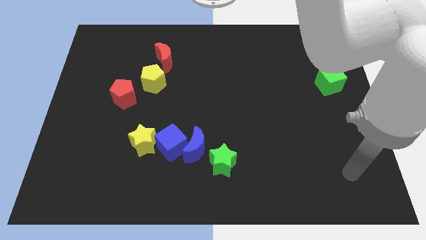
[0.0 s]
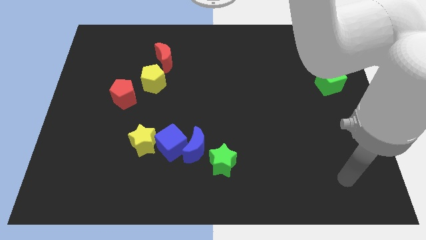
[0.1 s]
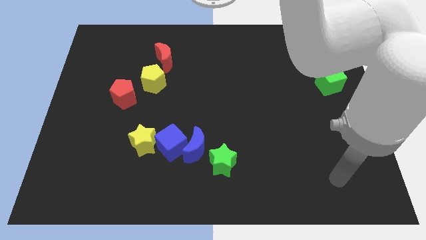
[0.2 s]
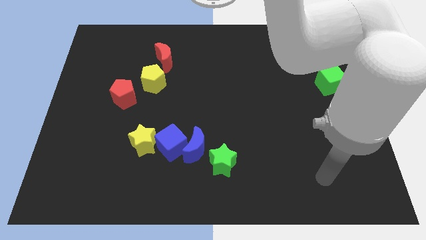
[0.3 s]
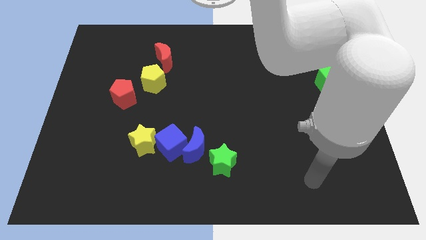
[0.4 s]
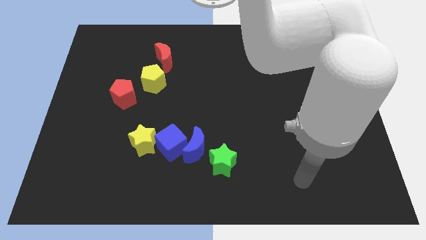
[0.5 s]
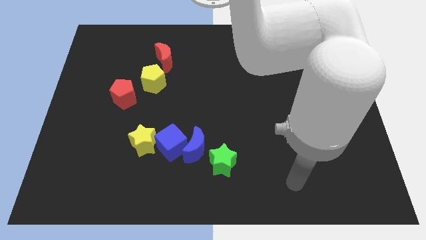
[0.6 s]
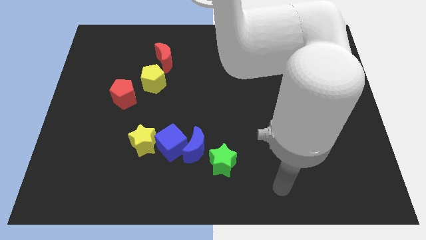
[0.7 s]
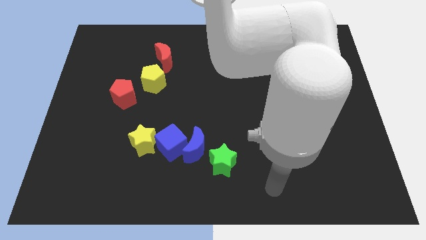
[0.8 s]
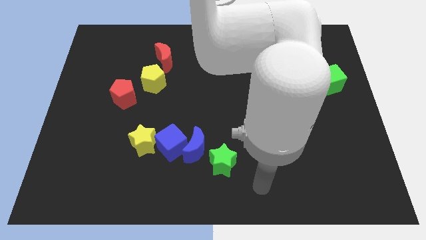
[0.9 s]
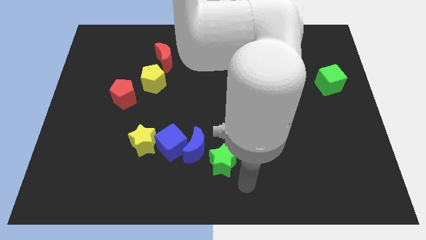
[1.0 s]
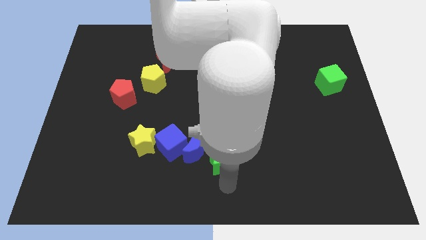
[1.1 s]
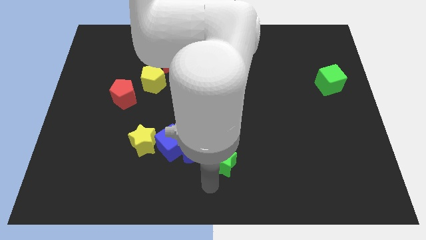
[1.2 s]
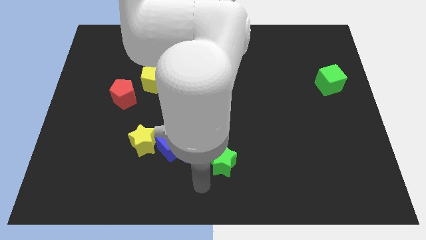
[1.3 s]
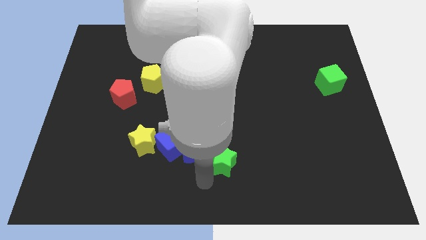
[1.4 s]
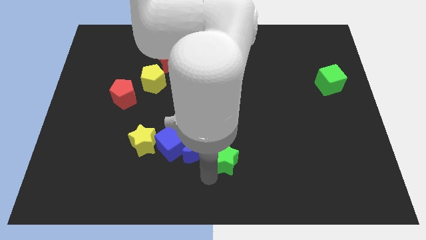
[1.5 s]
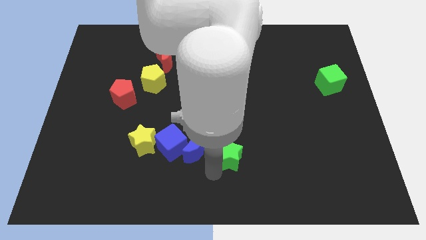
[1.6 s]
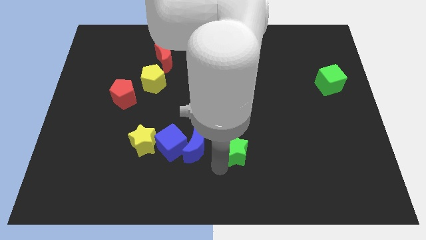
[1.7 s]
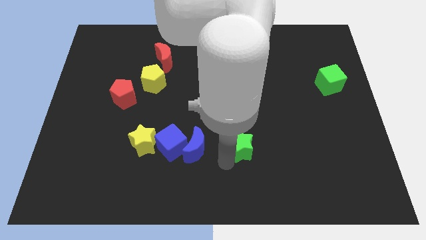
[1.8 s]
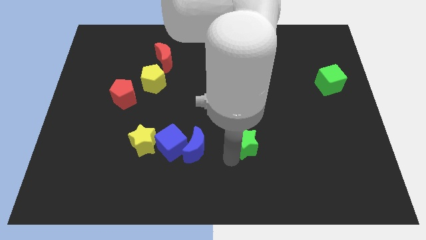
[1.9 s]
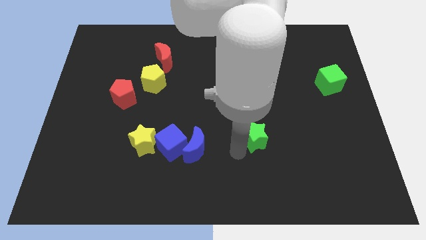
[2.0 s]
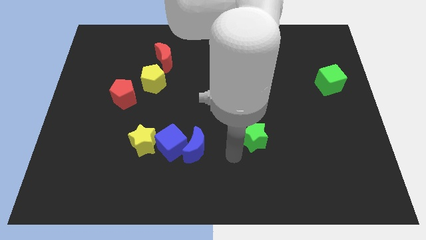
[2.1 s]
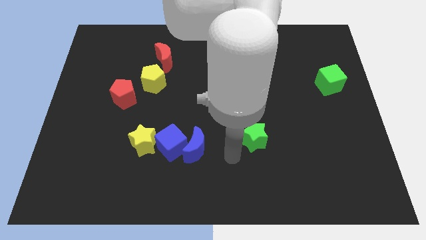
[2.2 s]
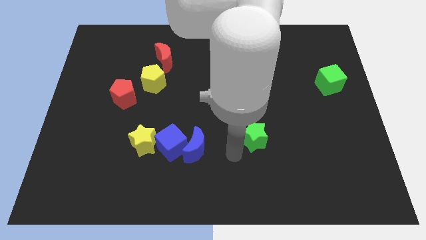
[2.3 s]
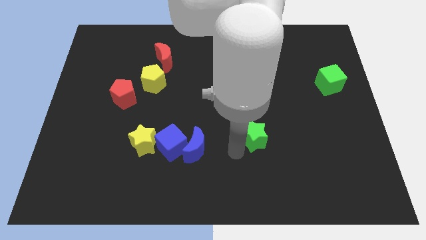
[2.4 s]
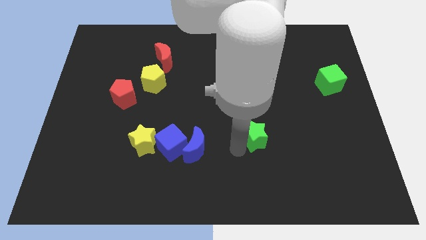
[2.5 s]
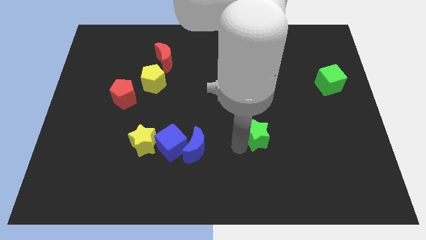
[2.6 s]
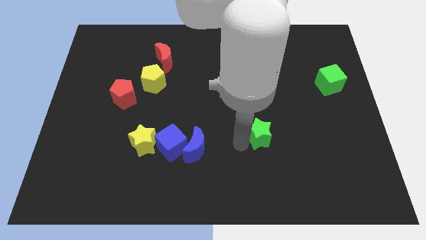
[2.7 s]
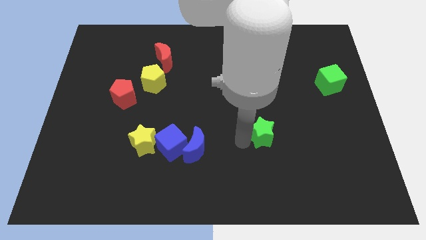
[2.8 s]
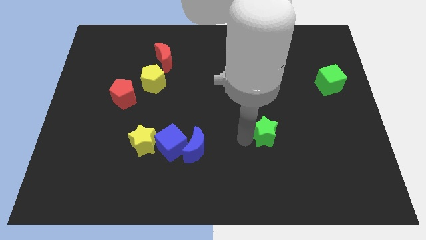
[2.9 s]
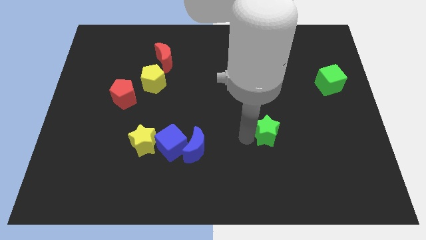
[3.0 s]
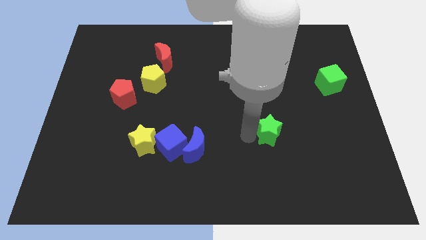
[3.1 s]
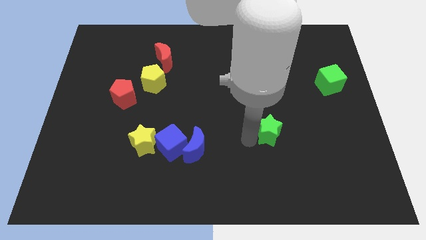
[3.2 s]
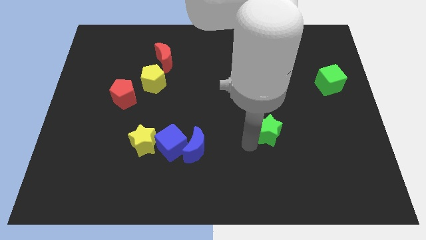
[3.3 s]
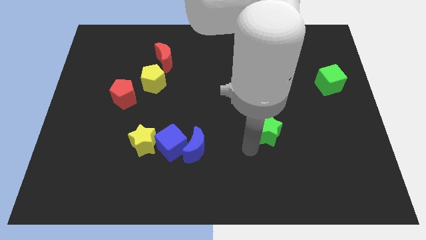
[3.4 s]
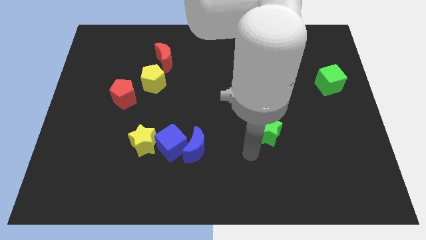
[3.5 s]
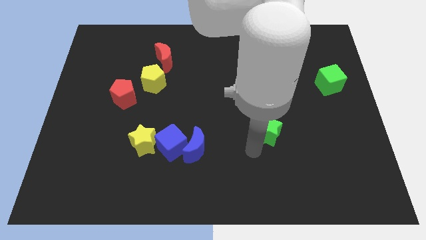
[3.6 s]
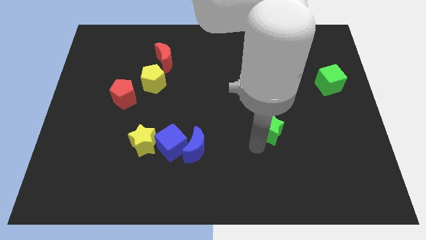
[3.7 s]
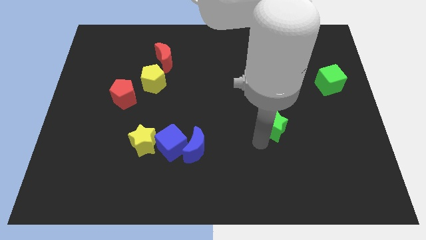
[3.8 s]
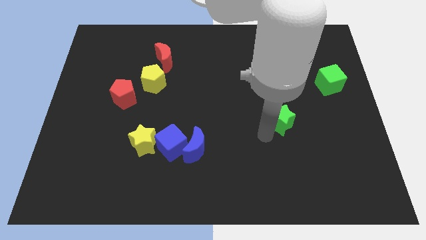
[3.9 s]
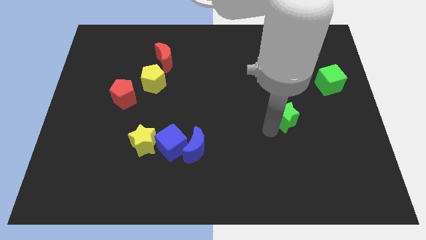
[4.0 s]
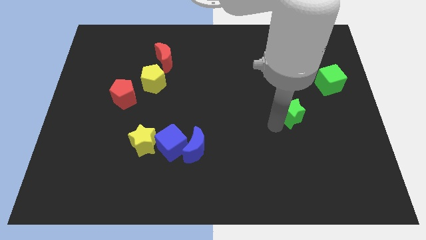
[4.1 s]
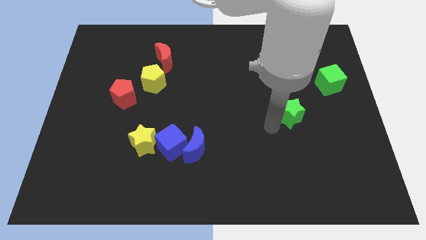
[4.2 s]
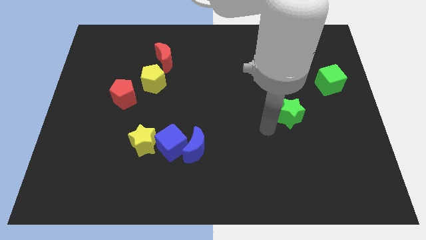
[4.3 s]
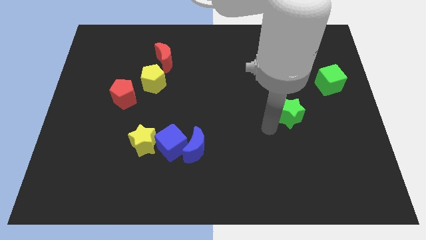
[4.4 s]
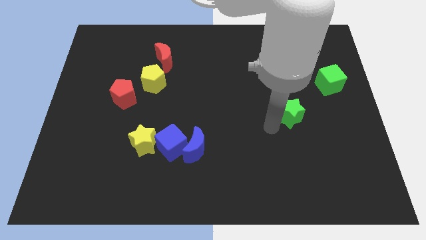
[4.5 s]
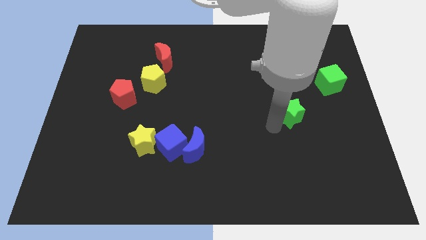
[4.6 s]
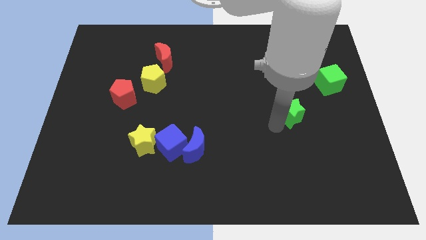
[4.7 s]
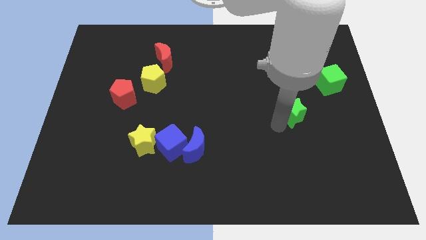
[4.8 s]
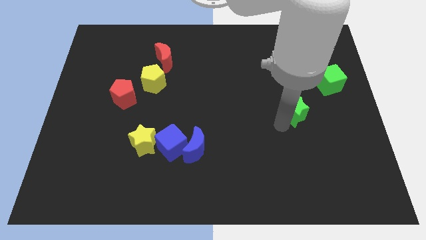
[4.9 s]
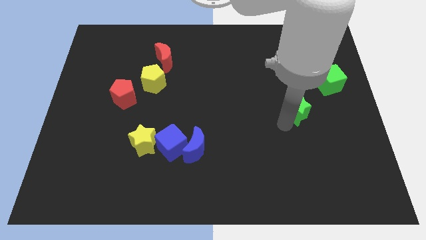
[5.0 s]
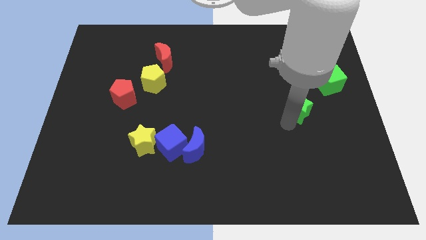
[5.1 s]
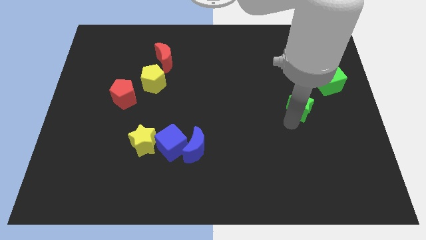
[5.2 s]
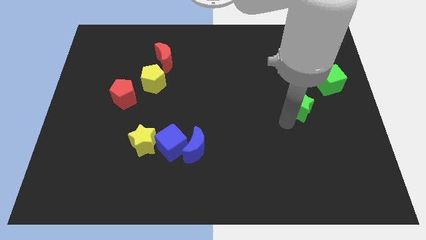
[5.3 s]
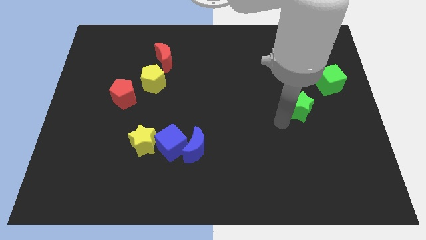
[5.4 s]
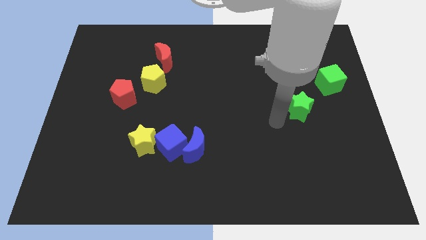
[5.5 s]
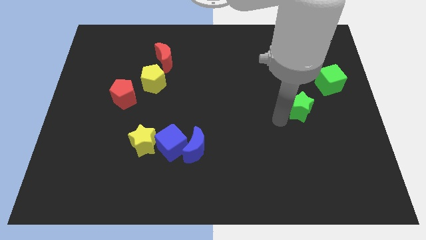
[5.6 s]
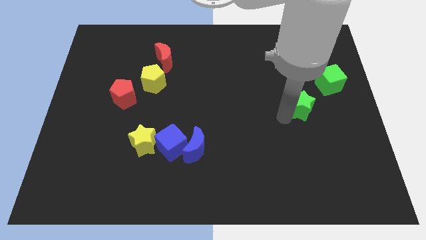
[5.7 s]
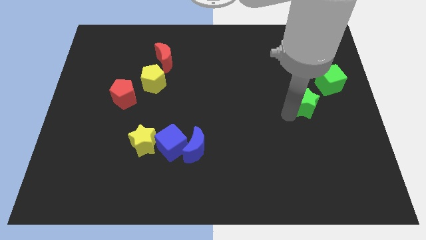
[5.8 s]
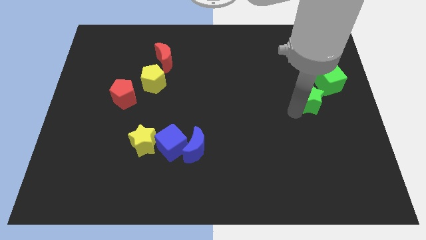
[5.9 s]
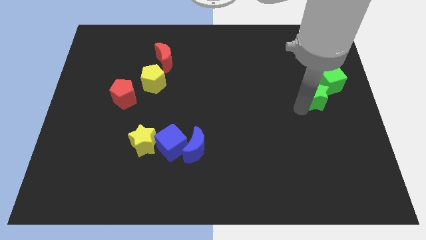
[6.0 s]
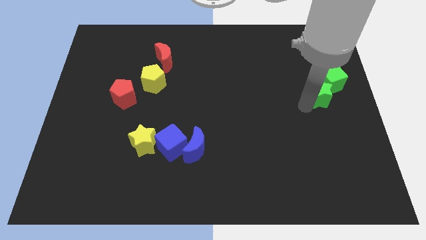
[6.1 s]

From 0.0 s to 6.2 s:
put the green star towards the green cube

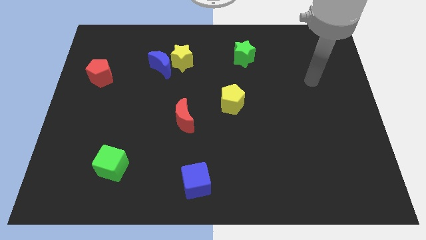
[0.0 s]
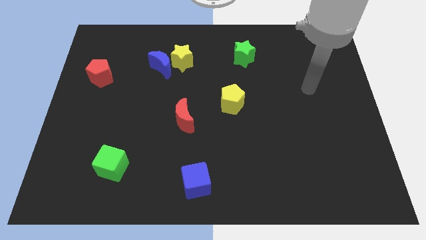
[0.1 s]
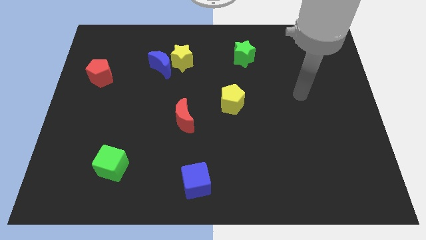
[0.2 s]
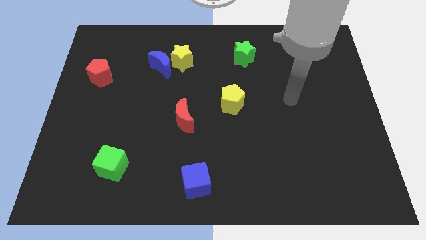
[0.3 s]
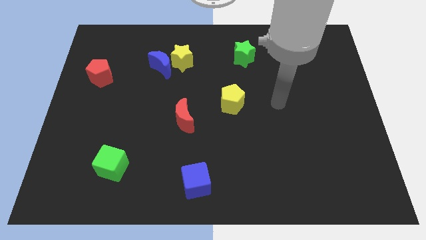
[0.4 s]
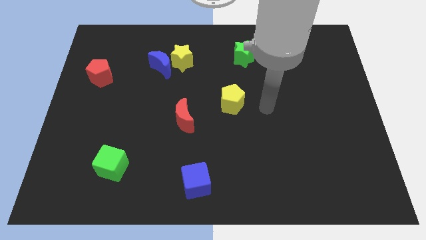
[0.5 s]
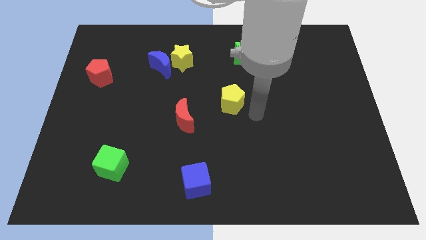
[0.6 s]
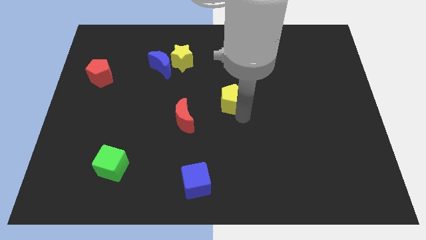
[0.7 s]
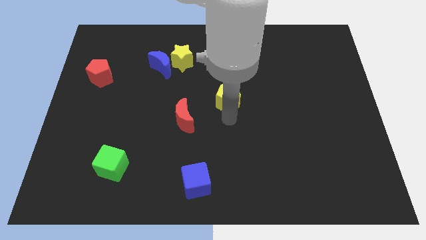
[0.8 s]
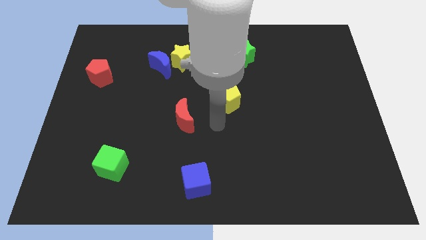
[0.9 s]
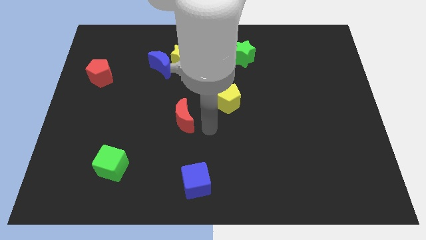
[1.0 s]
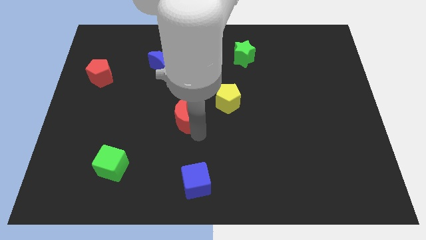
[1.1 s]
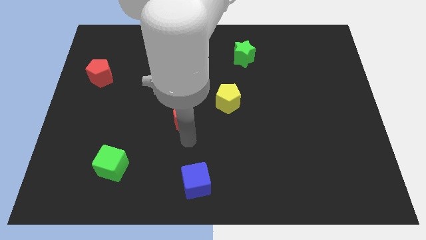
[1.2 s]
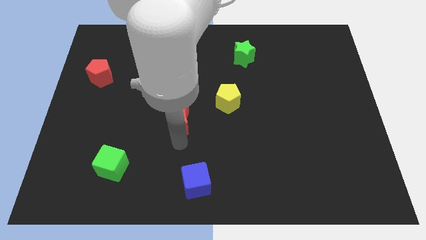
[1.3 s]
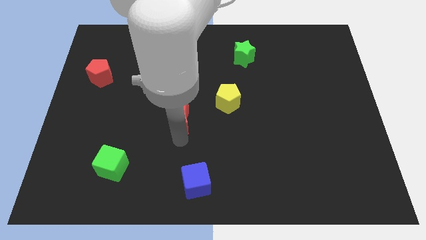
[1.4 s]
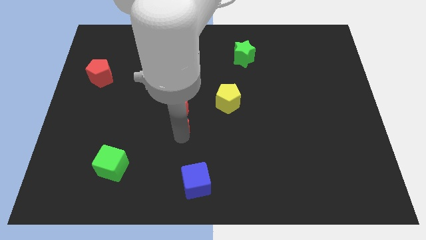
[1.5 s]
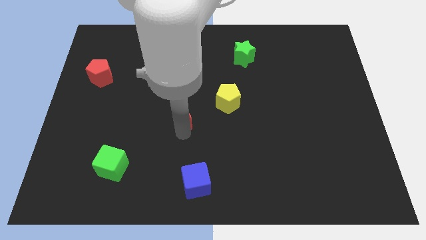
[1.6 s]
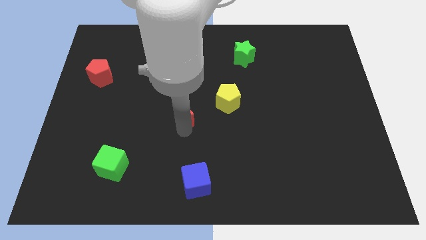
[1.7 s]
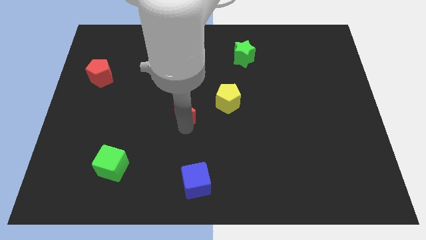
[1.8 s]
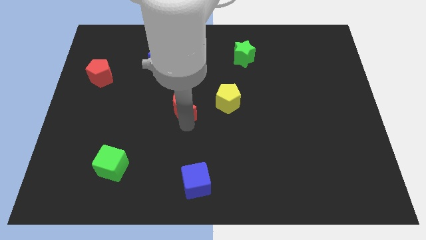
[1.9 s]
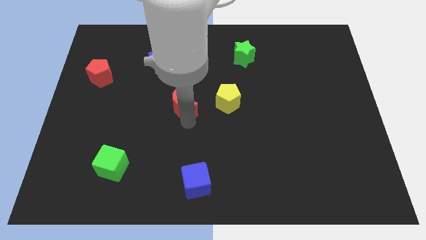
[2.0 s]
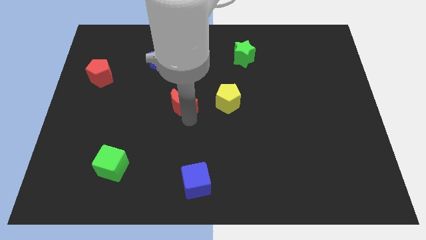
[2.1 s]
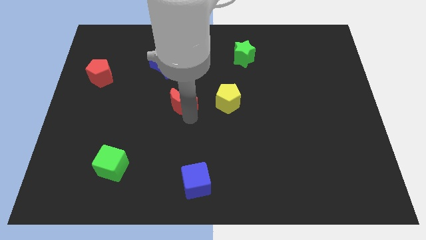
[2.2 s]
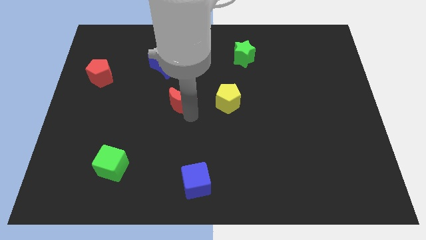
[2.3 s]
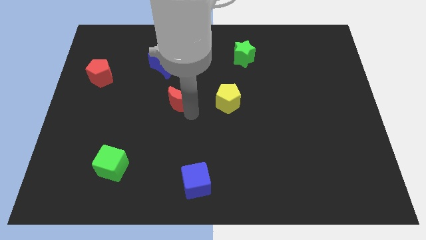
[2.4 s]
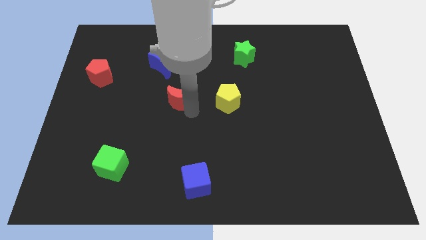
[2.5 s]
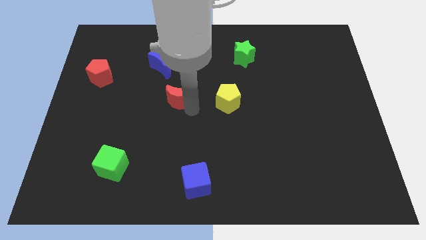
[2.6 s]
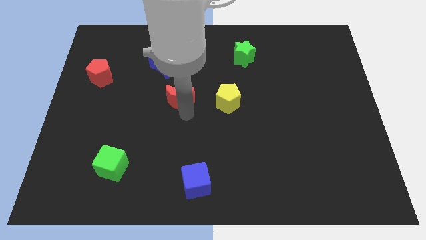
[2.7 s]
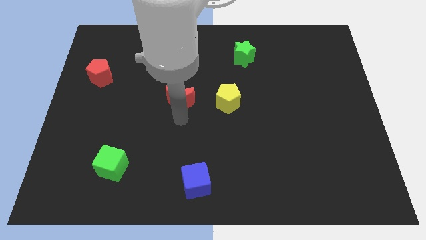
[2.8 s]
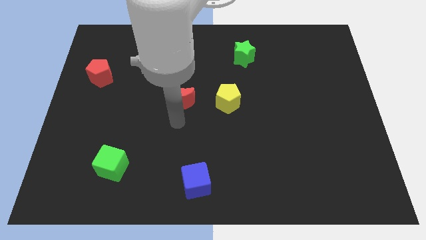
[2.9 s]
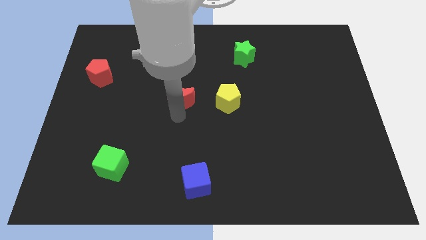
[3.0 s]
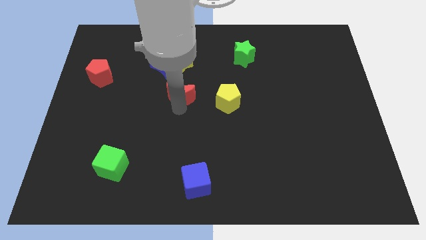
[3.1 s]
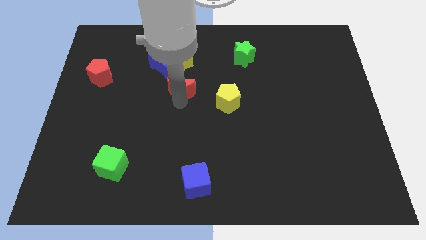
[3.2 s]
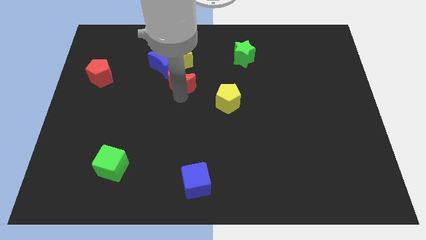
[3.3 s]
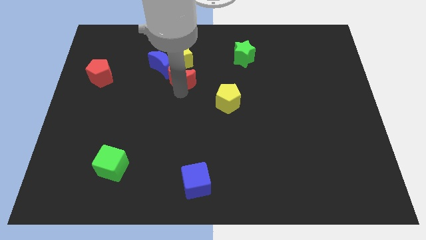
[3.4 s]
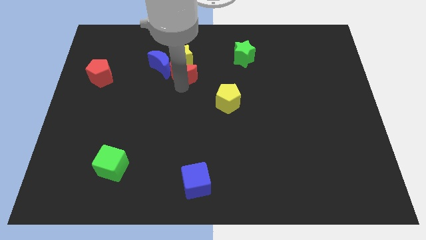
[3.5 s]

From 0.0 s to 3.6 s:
put the red moon next to the yellow star
